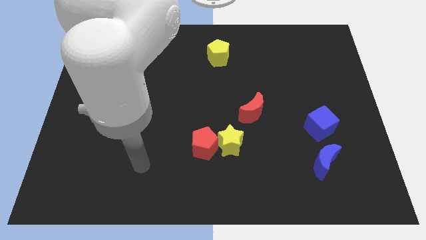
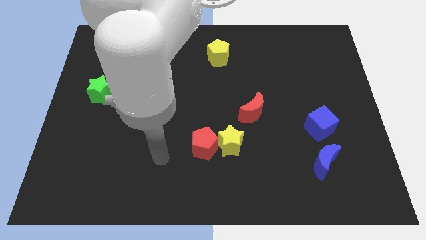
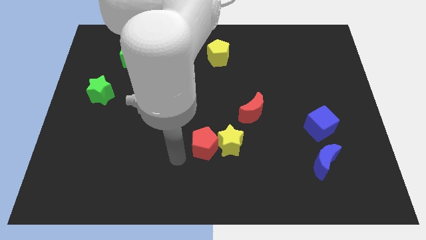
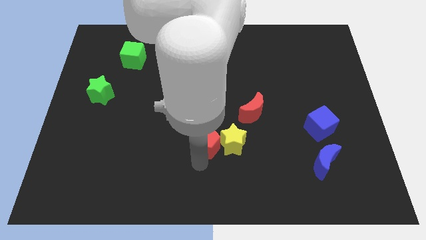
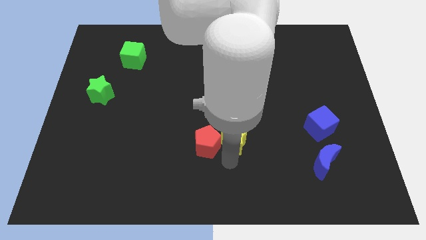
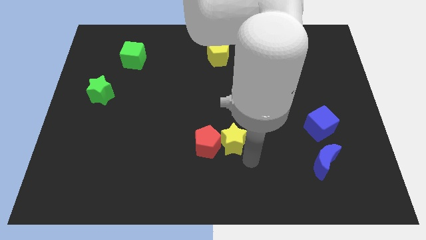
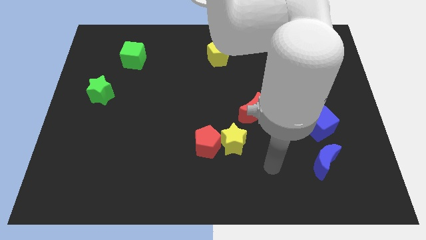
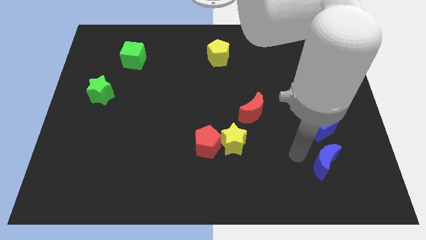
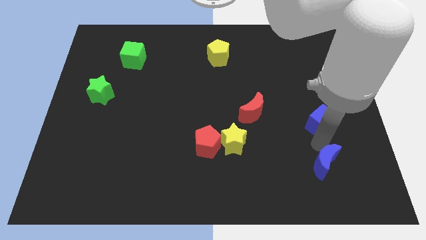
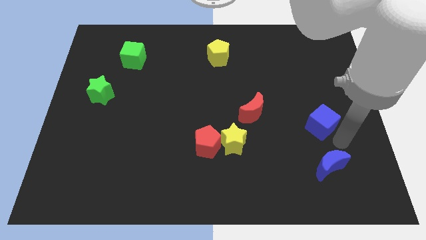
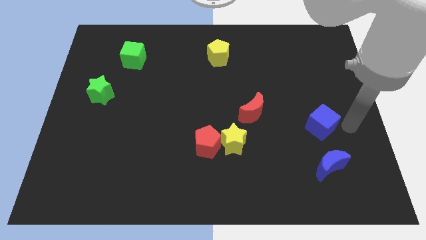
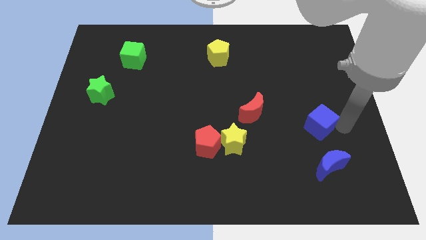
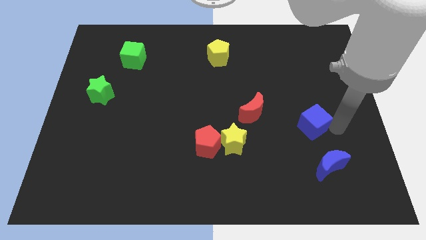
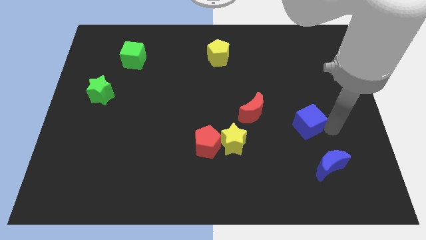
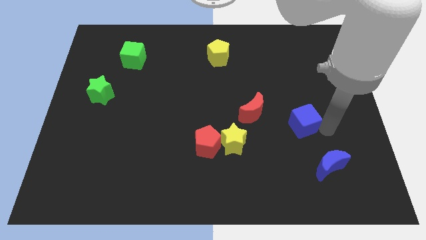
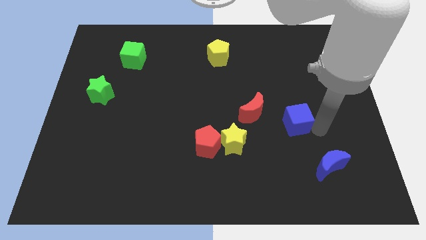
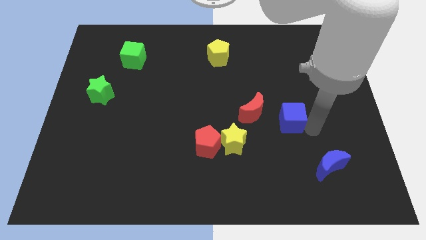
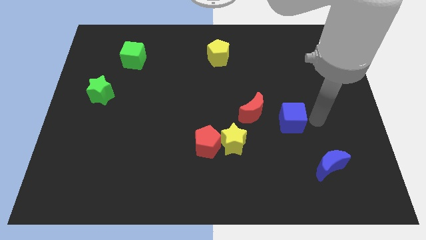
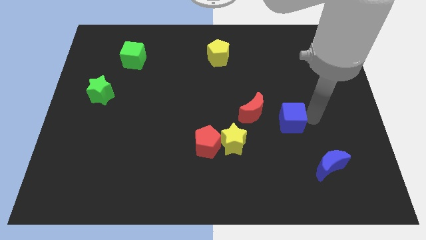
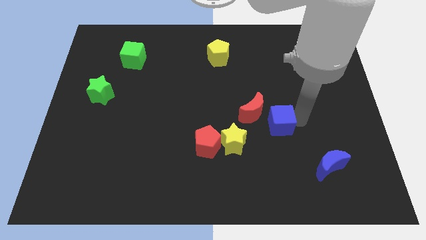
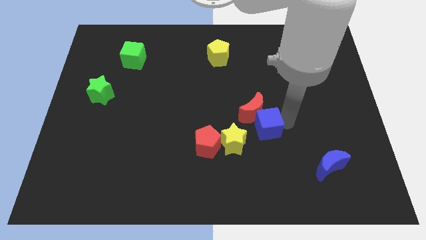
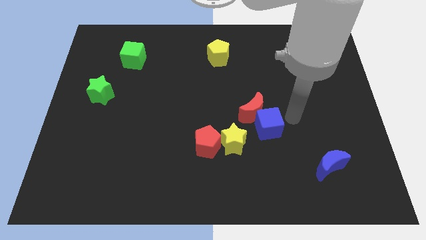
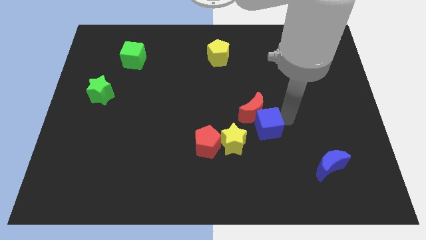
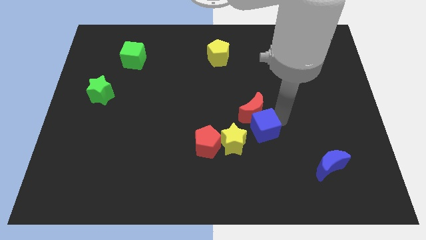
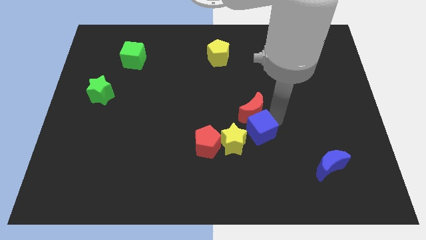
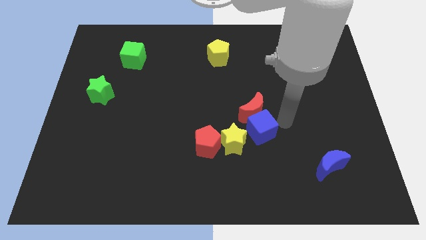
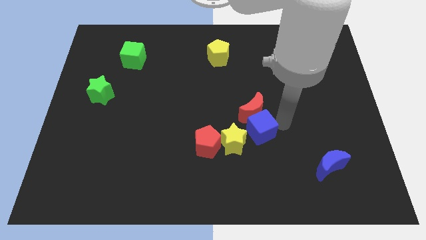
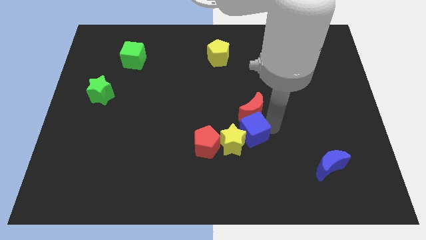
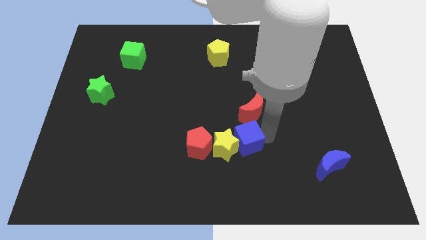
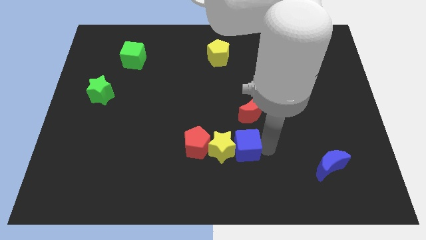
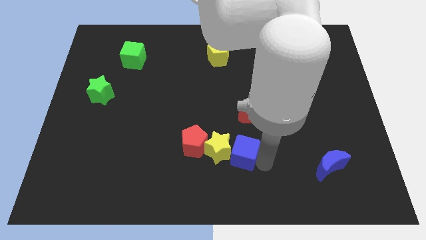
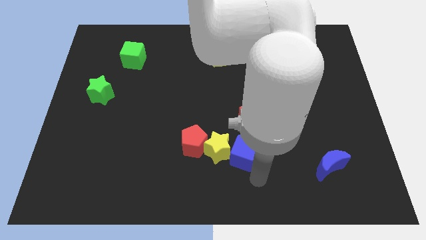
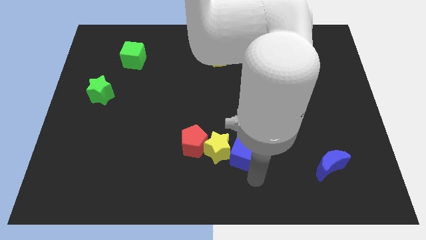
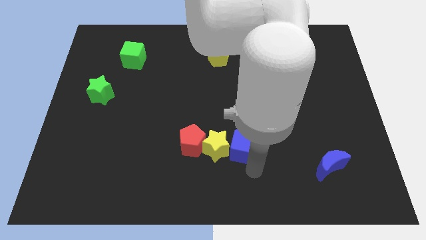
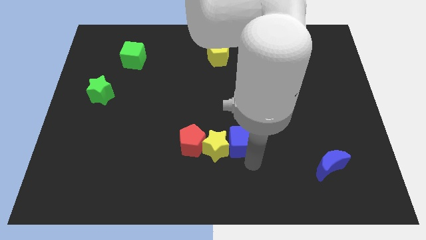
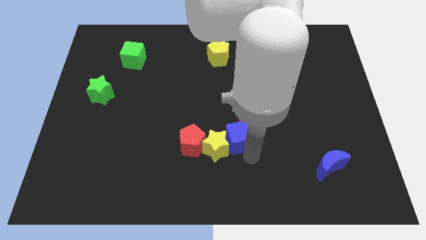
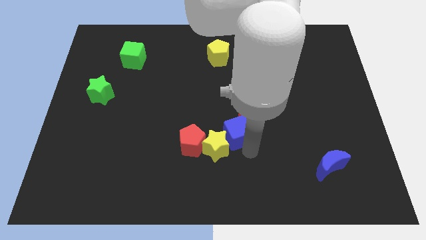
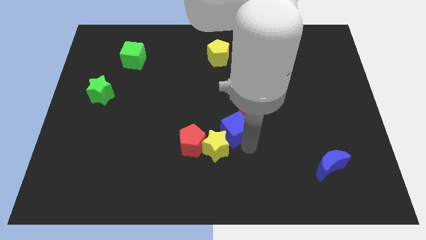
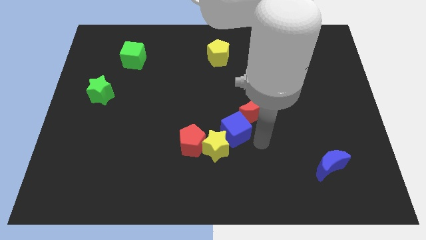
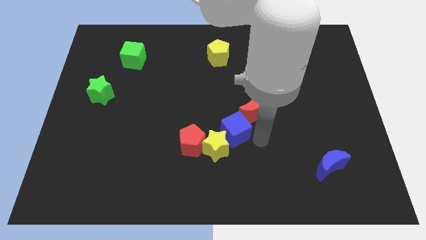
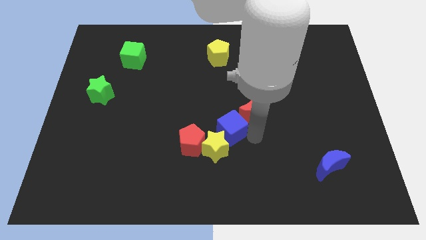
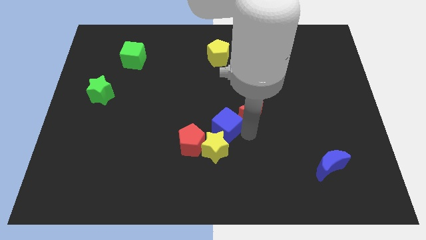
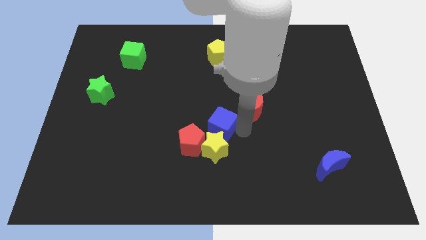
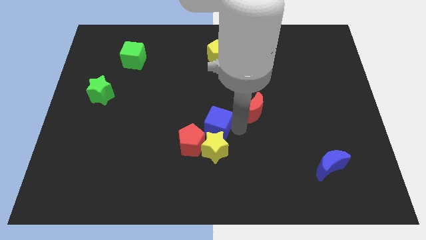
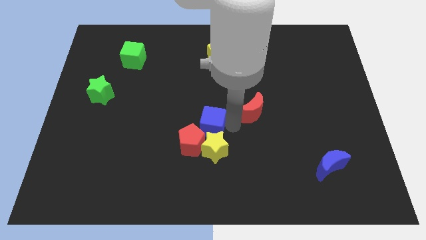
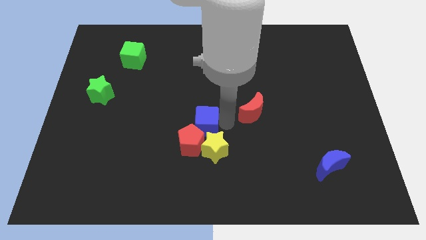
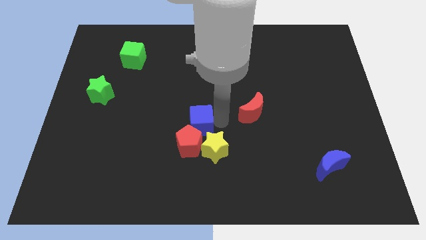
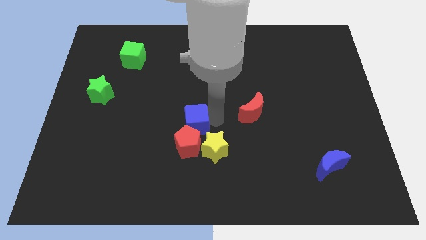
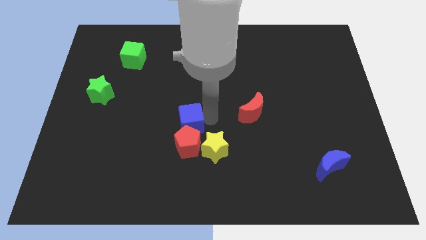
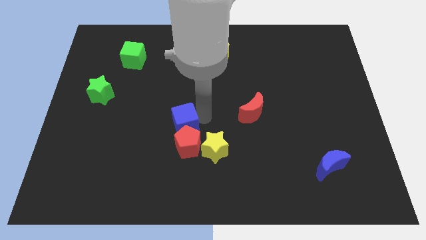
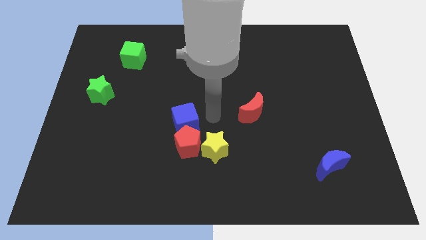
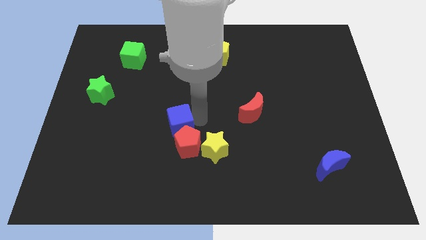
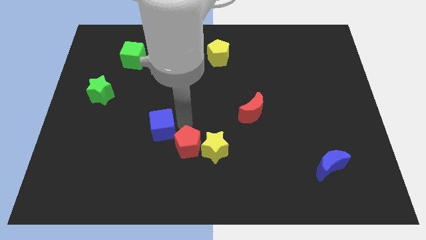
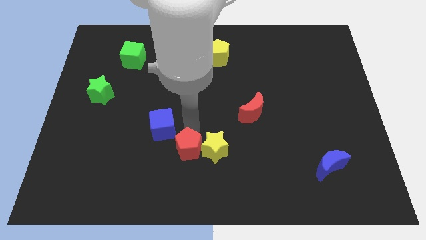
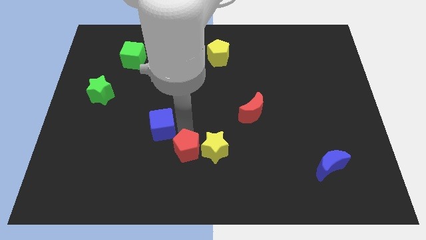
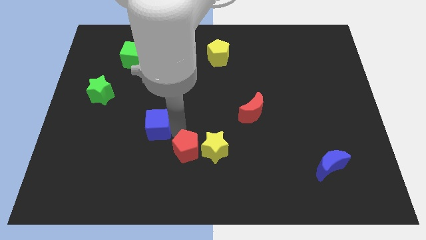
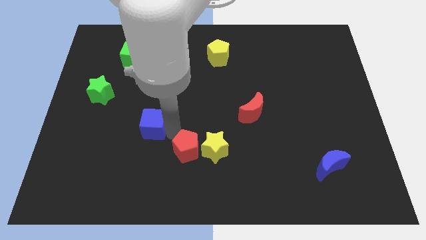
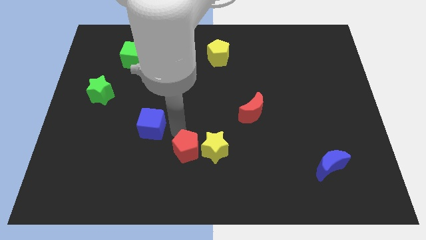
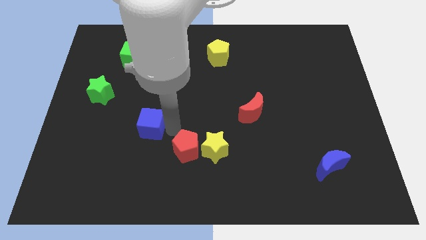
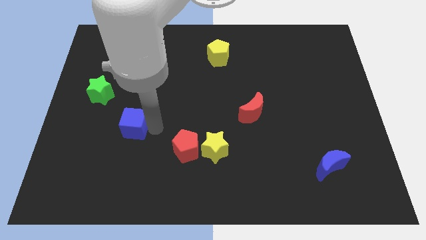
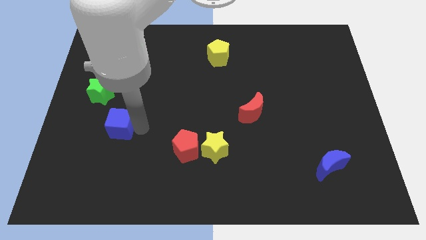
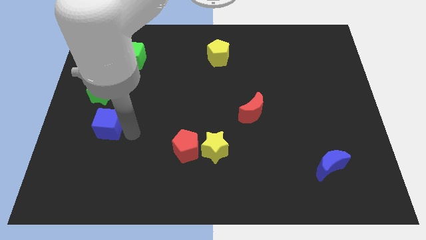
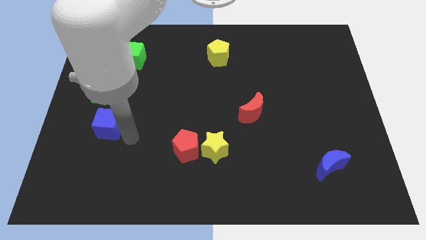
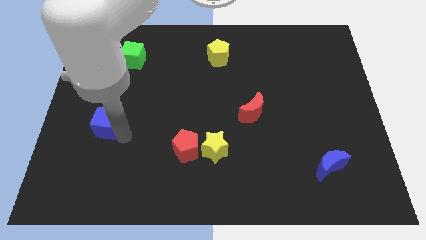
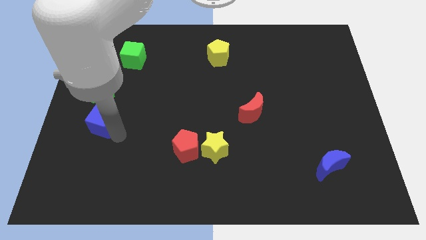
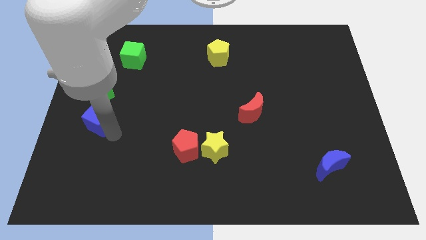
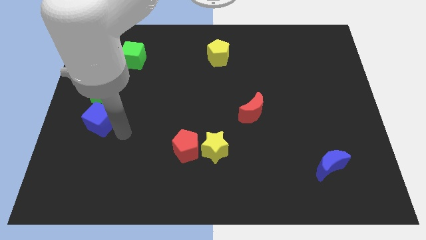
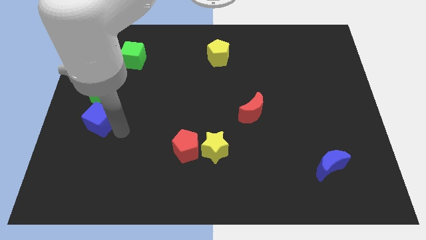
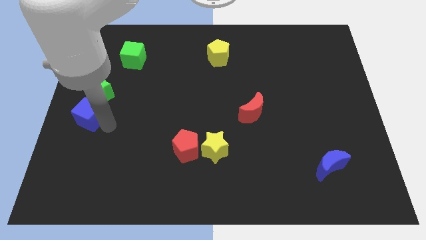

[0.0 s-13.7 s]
move the blue cube to the left side of the board
